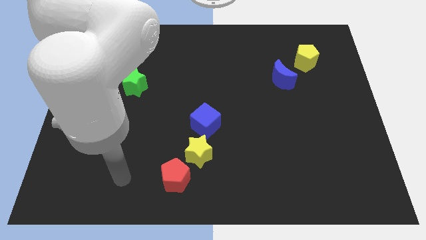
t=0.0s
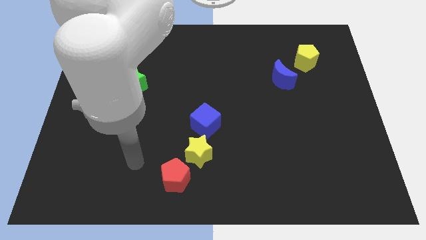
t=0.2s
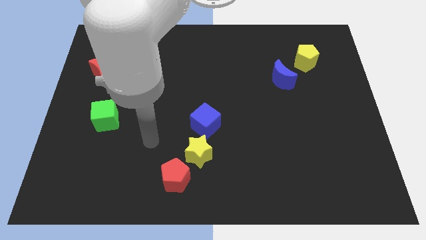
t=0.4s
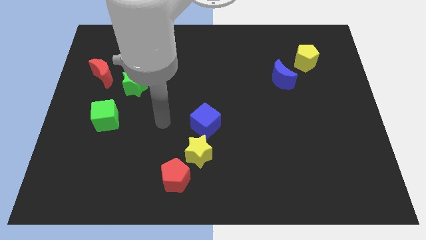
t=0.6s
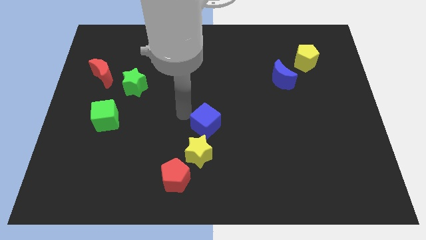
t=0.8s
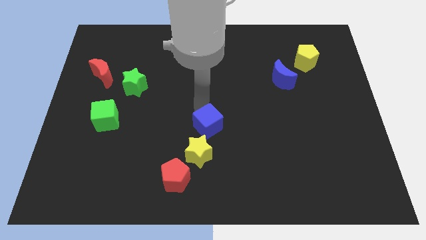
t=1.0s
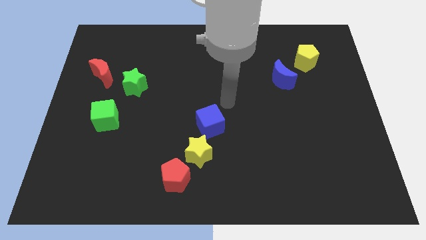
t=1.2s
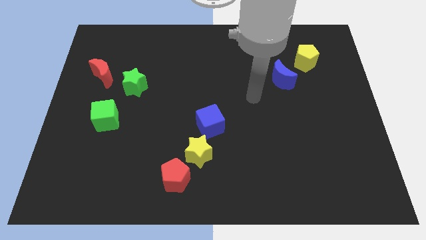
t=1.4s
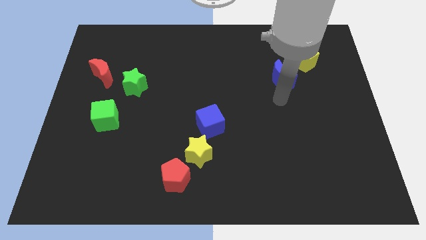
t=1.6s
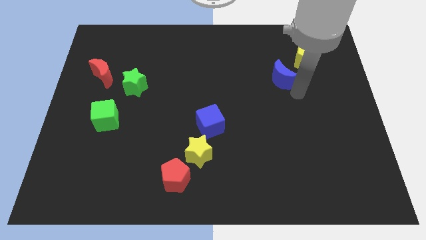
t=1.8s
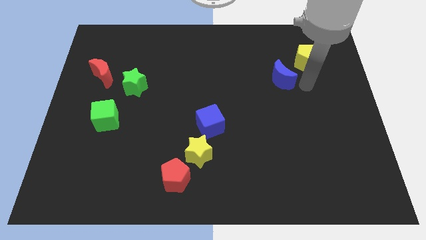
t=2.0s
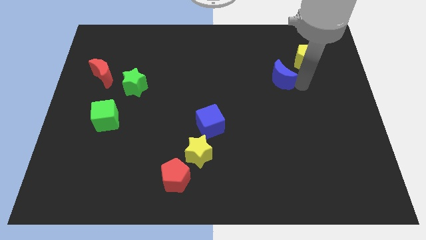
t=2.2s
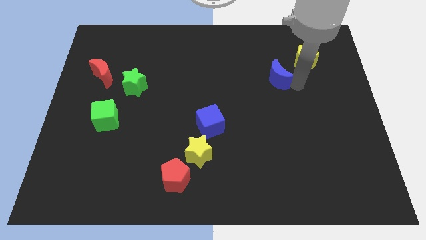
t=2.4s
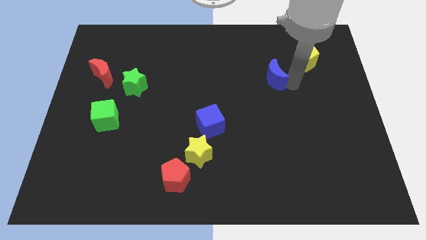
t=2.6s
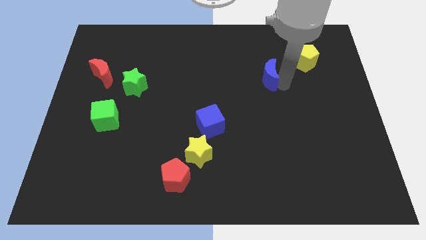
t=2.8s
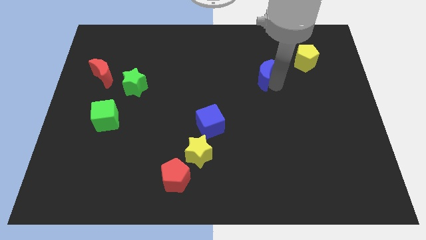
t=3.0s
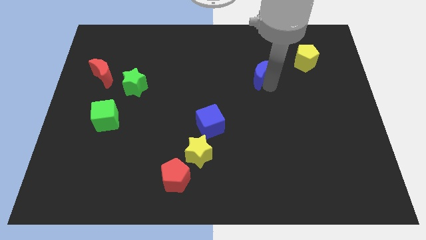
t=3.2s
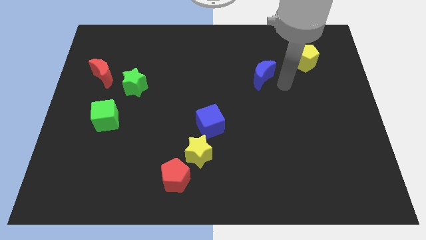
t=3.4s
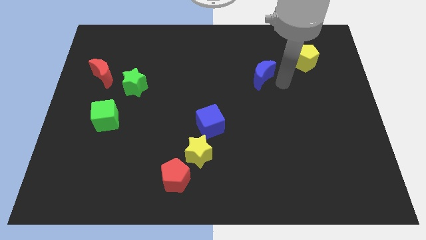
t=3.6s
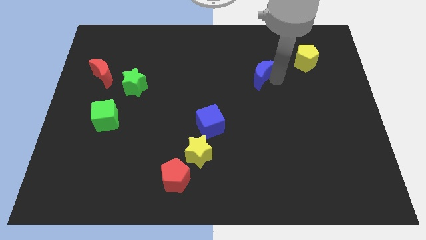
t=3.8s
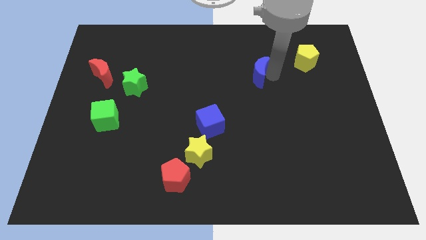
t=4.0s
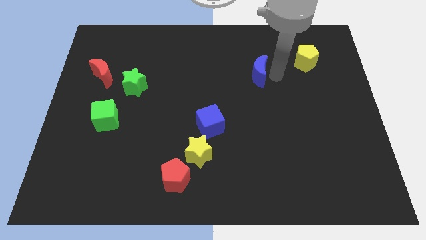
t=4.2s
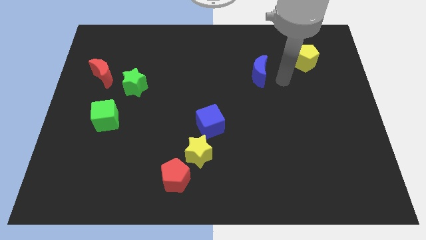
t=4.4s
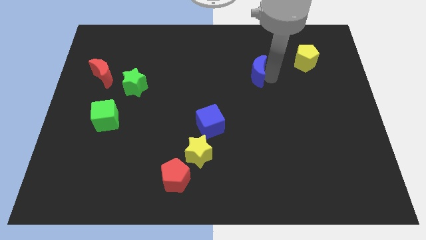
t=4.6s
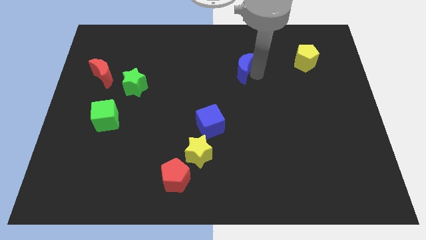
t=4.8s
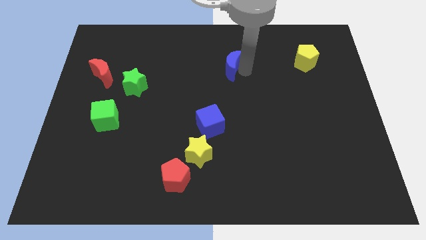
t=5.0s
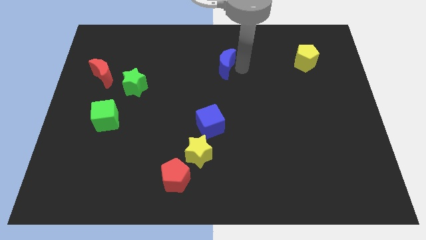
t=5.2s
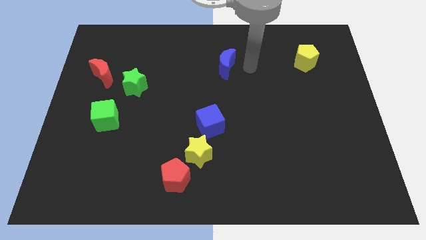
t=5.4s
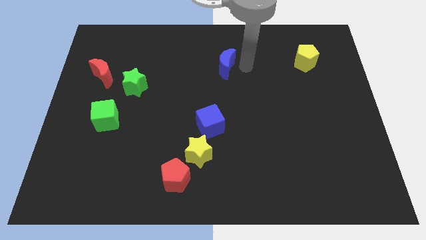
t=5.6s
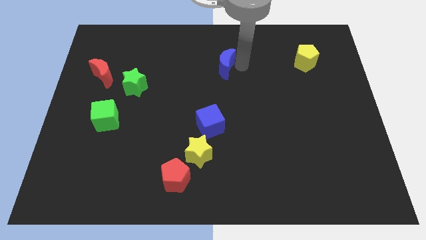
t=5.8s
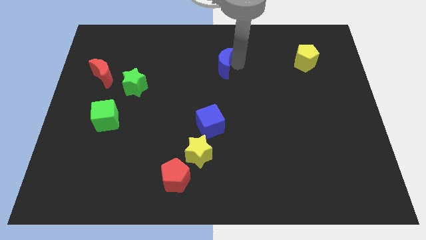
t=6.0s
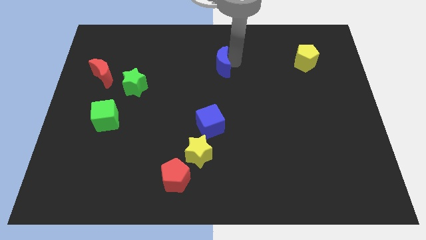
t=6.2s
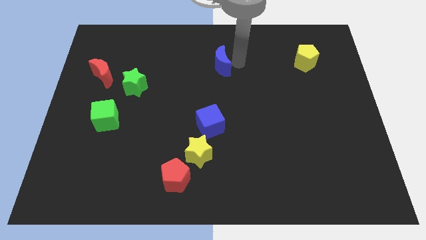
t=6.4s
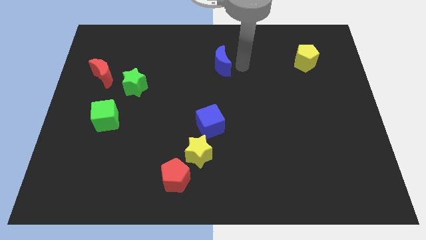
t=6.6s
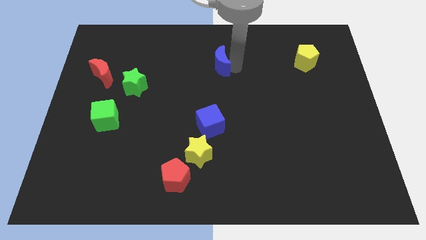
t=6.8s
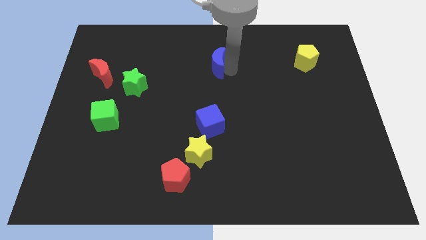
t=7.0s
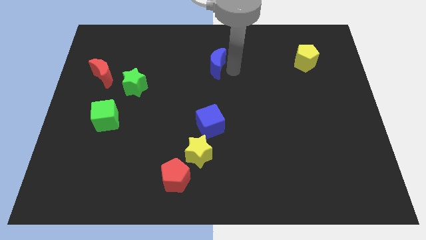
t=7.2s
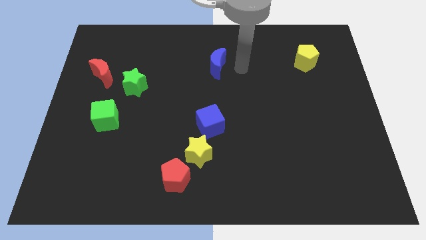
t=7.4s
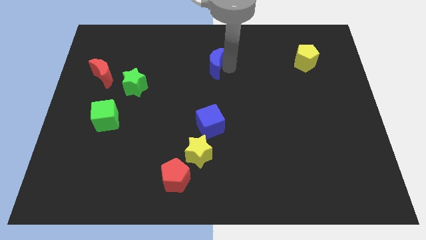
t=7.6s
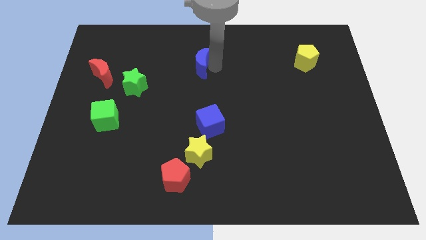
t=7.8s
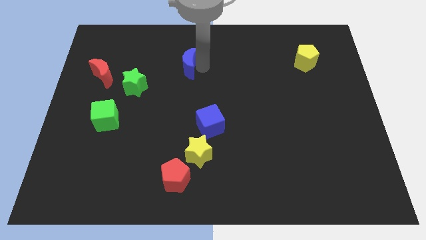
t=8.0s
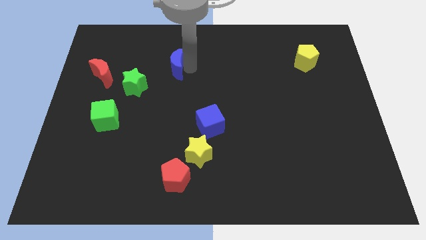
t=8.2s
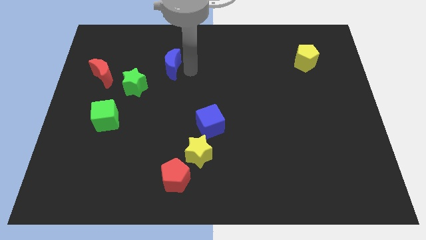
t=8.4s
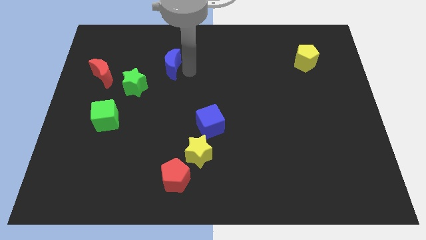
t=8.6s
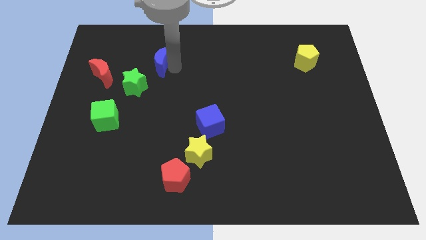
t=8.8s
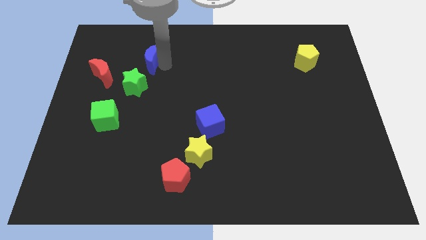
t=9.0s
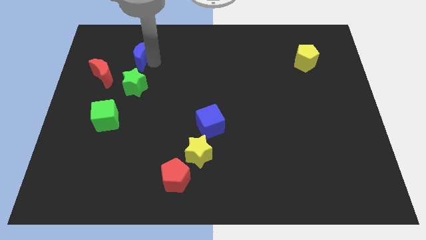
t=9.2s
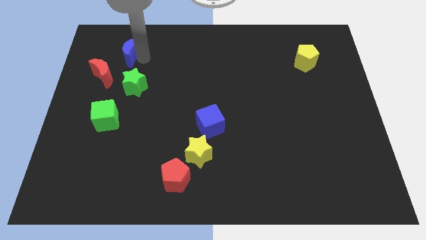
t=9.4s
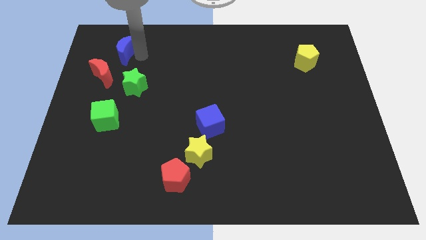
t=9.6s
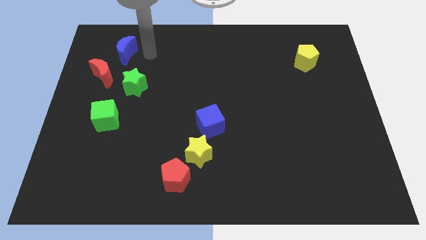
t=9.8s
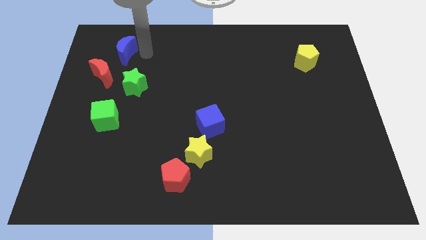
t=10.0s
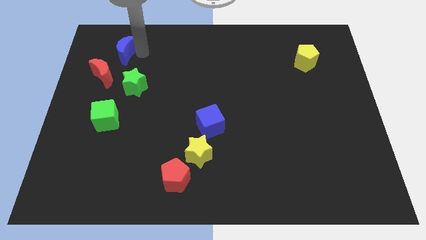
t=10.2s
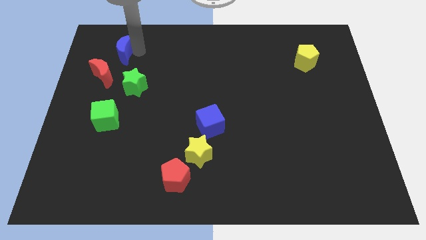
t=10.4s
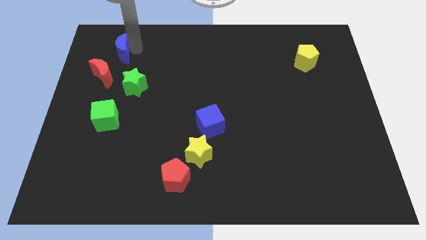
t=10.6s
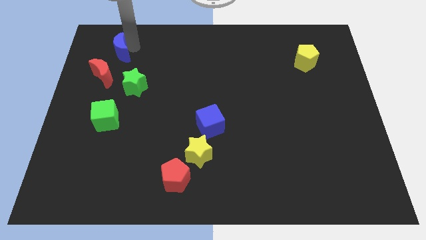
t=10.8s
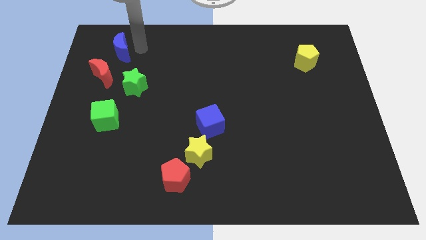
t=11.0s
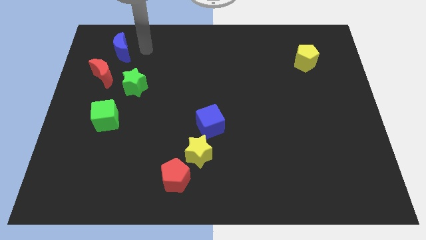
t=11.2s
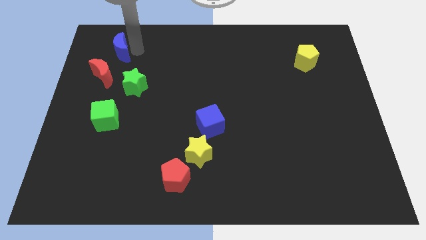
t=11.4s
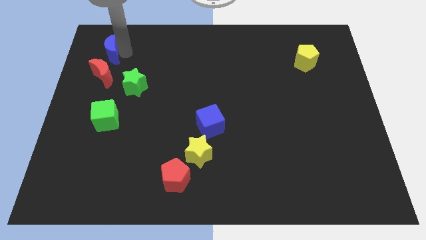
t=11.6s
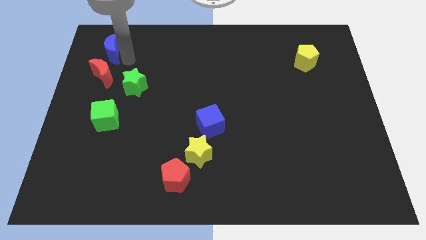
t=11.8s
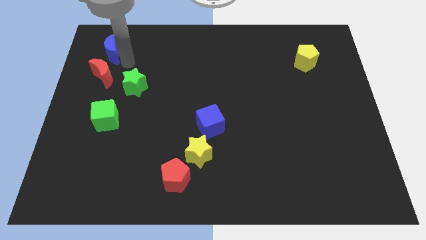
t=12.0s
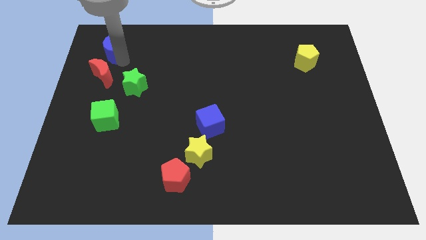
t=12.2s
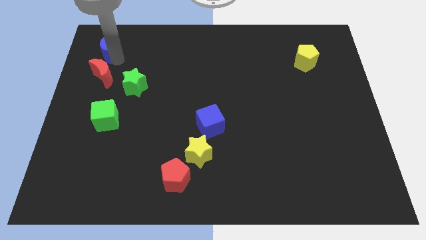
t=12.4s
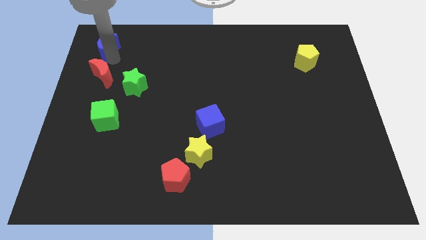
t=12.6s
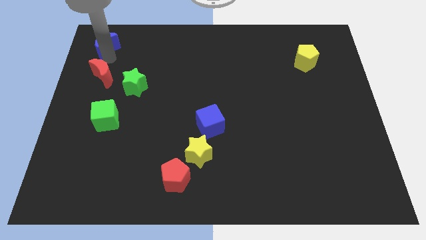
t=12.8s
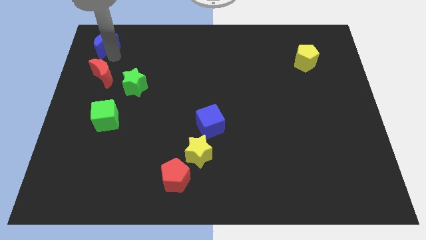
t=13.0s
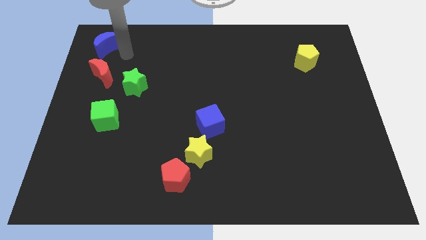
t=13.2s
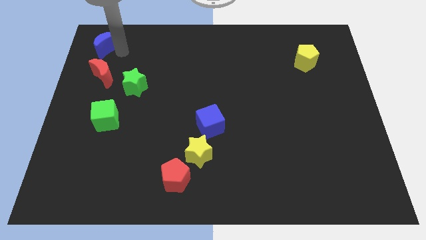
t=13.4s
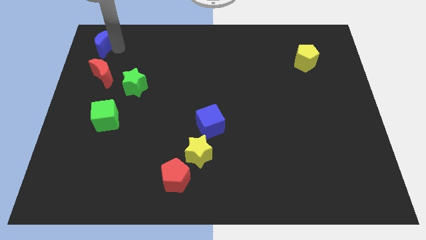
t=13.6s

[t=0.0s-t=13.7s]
move the blue moon to the upper left corner
